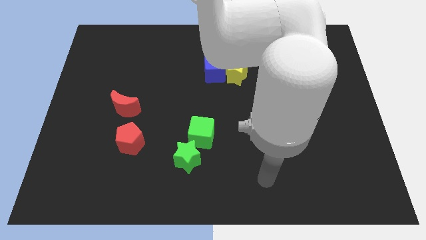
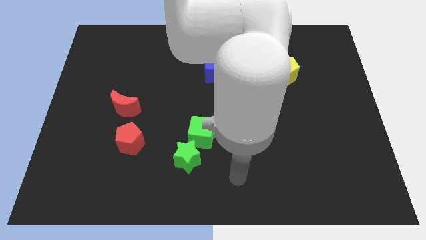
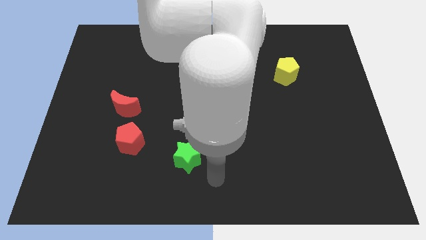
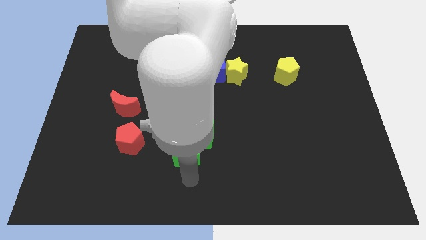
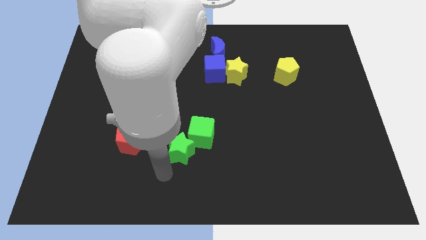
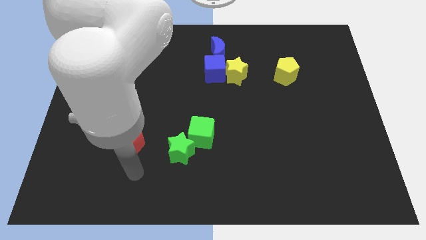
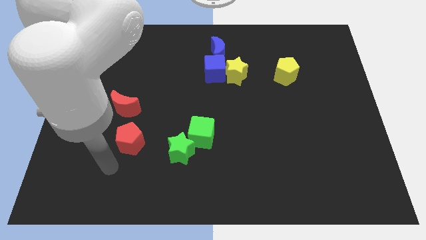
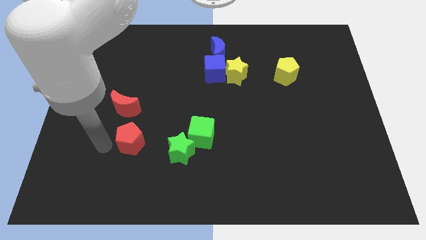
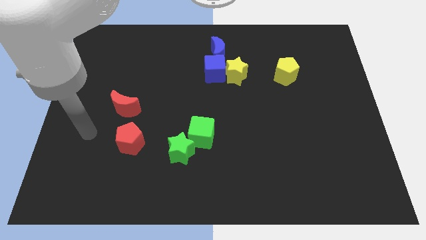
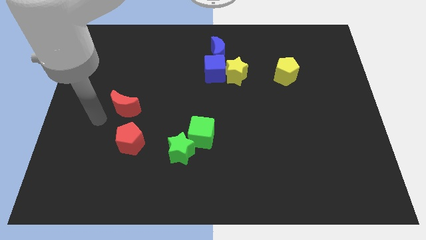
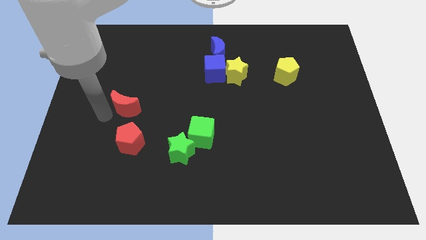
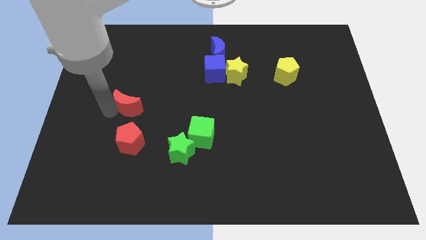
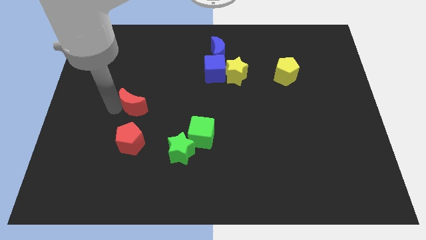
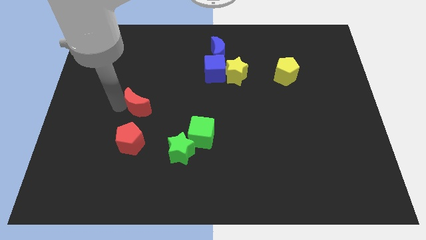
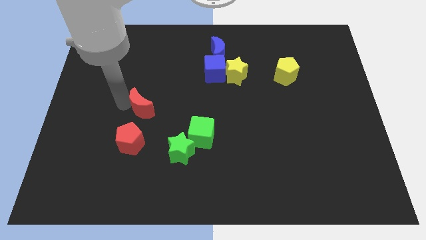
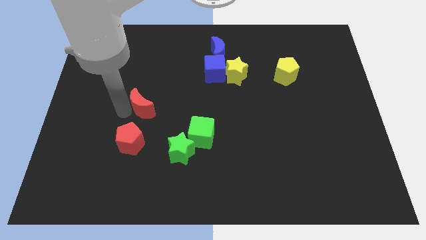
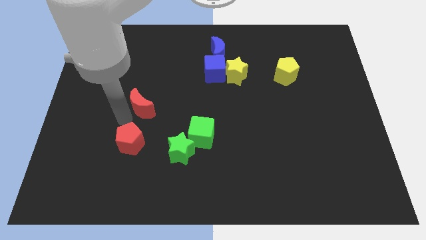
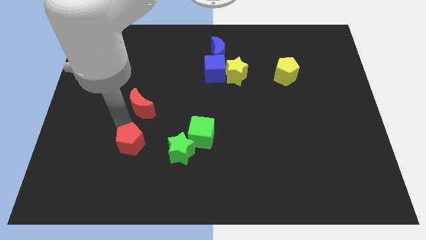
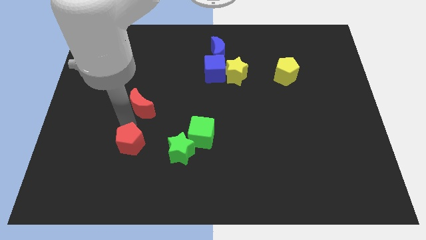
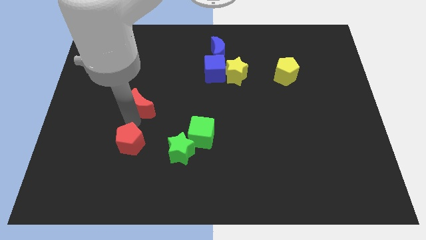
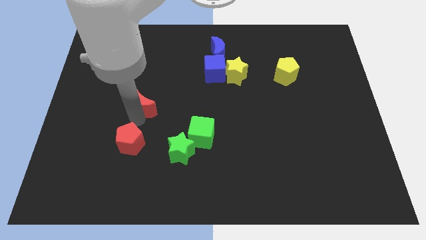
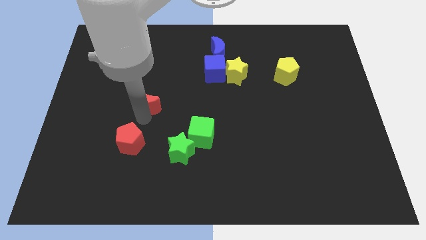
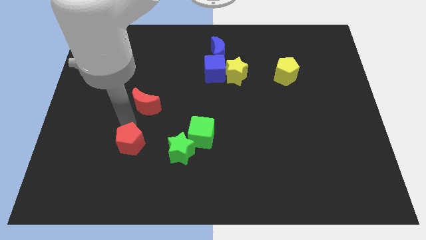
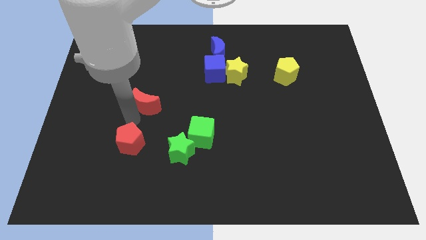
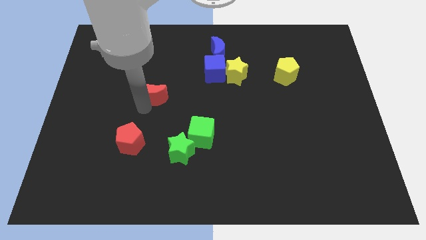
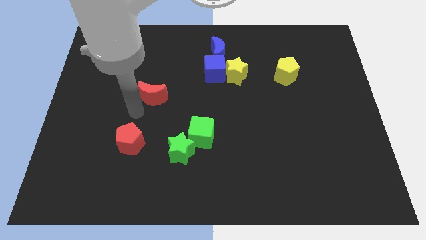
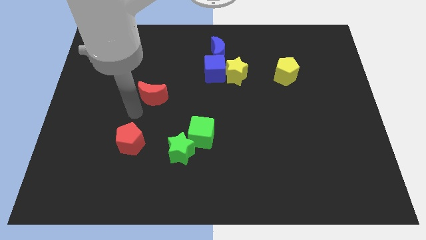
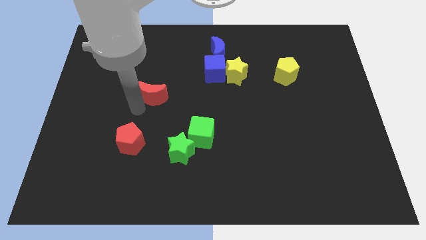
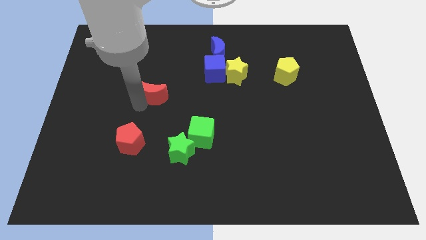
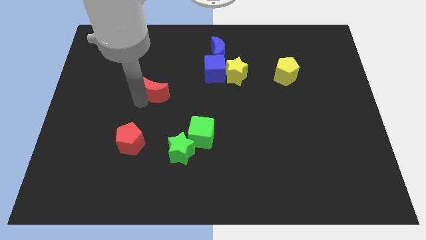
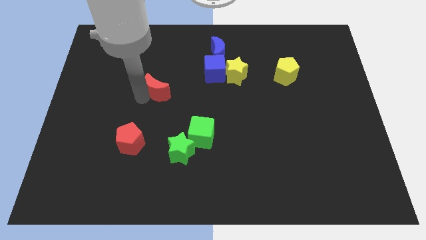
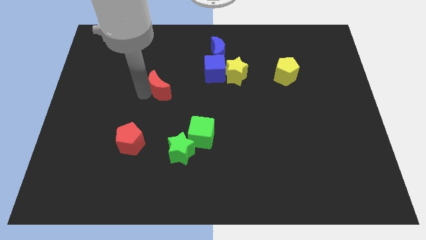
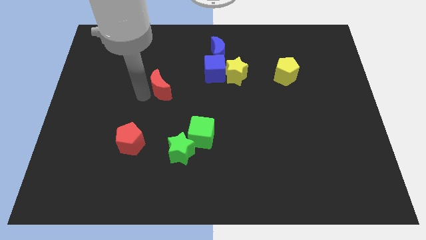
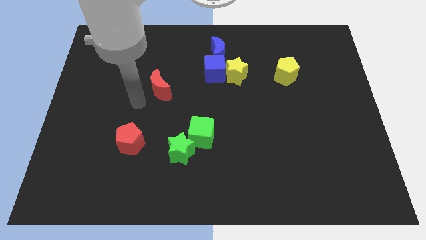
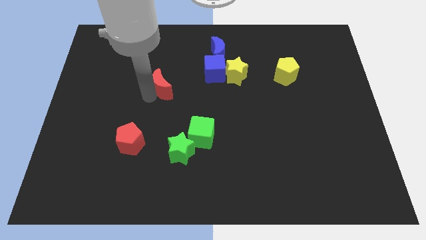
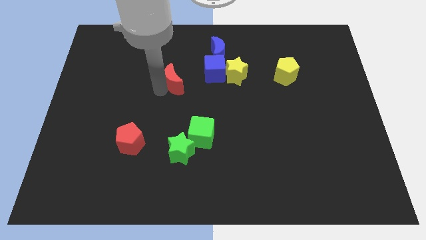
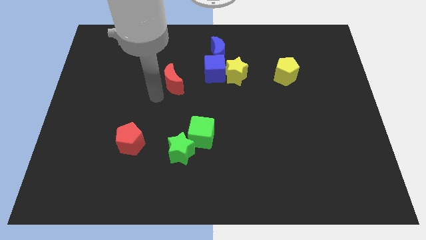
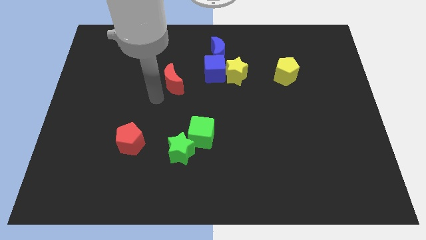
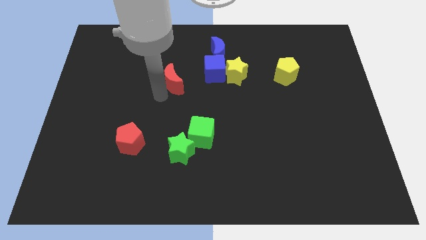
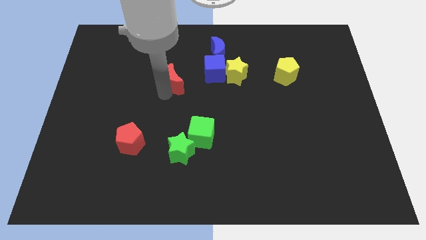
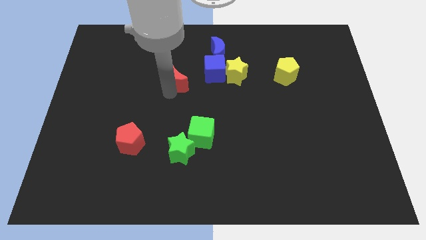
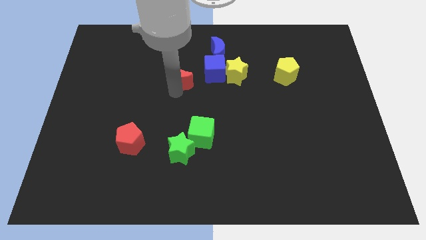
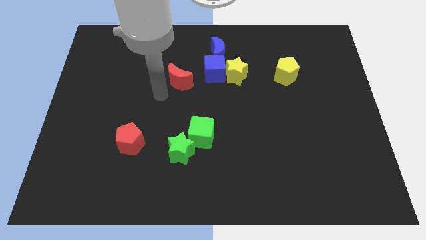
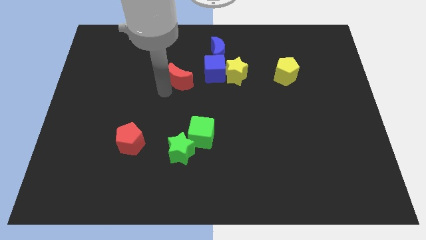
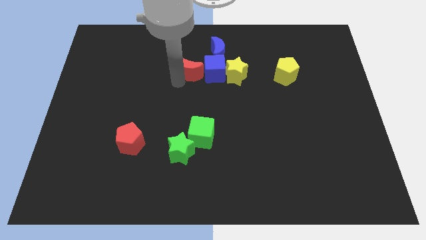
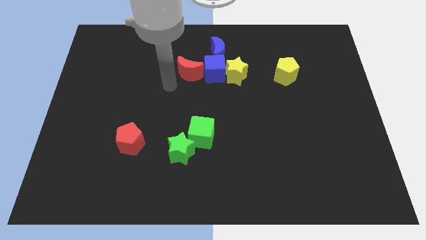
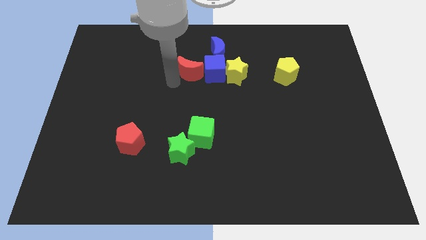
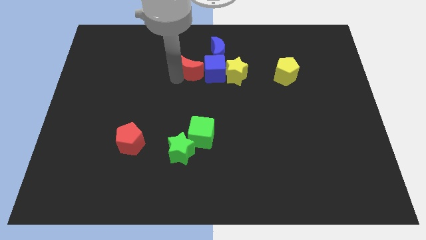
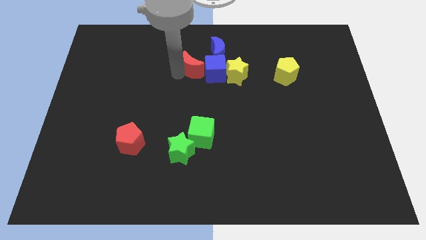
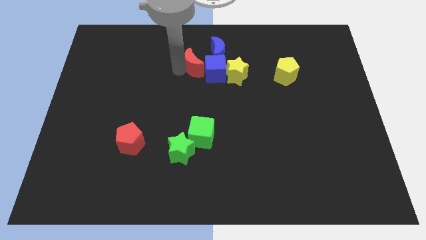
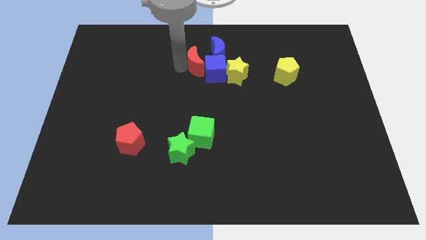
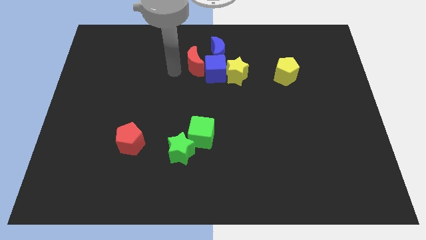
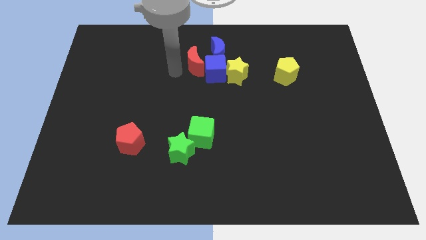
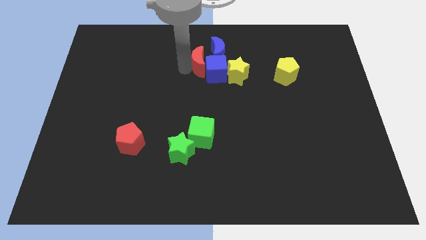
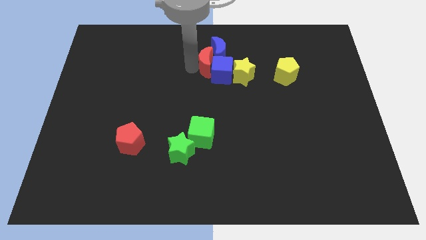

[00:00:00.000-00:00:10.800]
move the red moon towards the blue moon

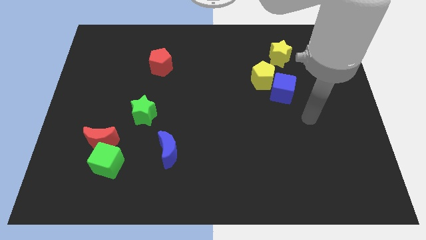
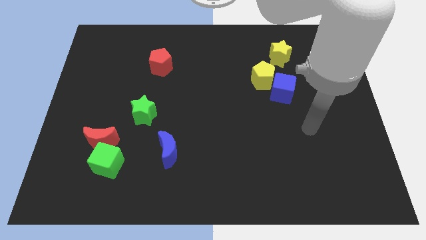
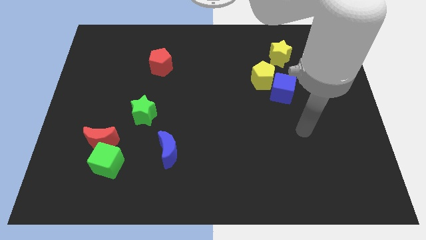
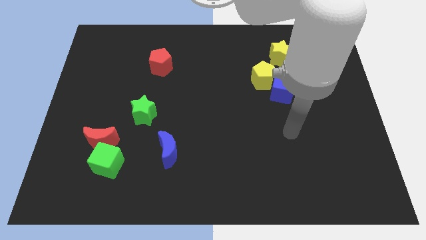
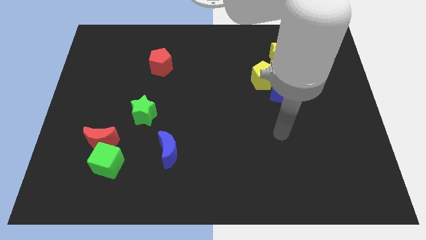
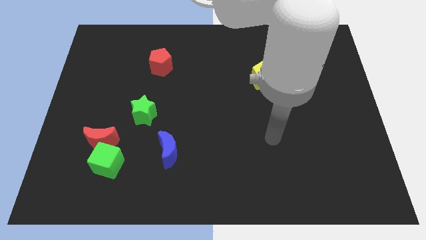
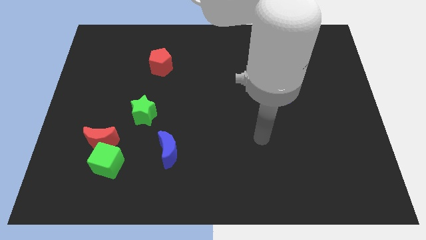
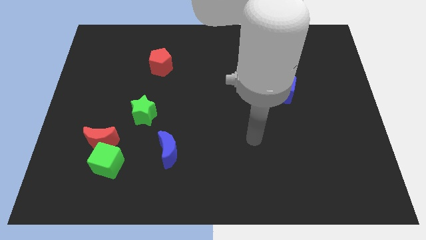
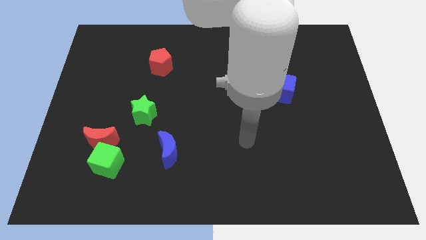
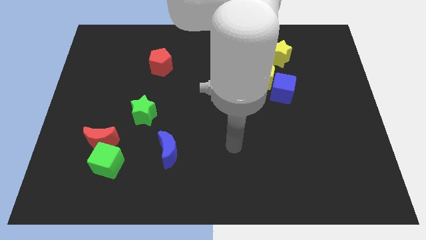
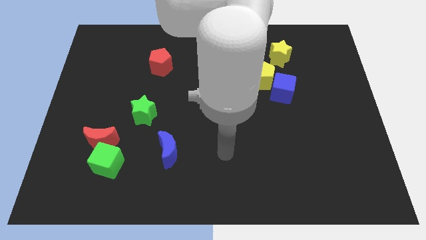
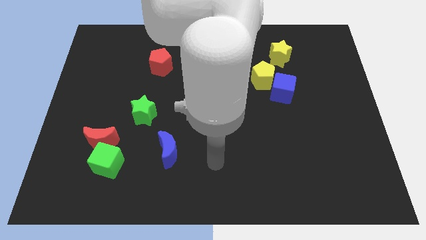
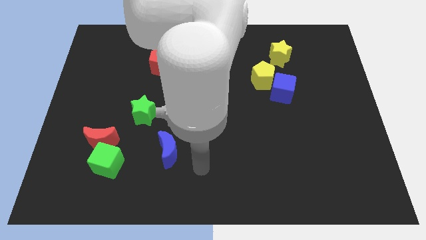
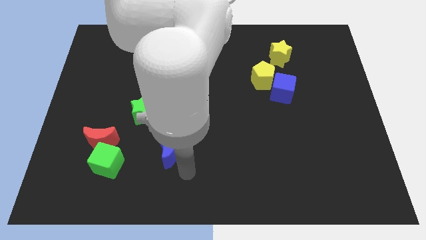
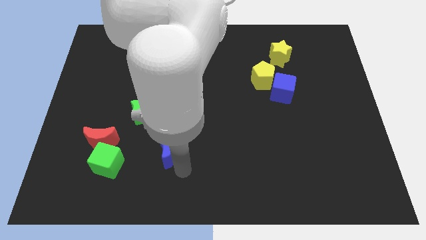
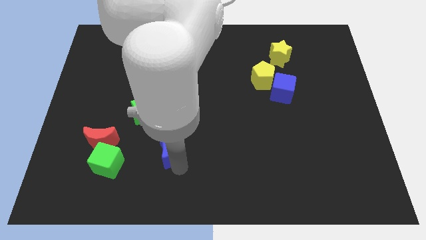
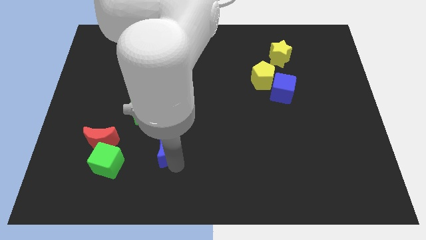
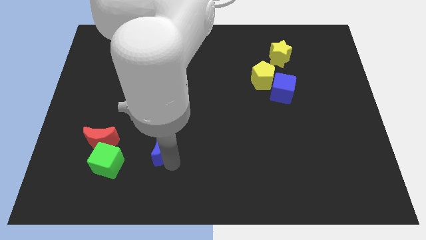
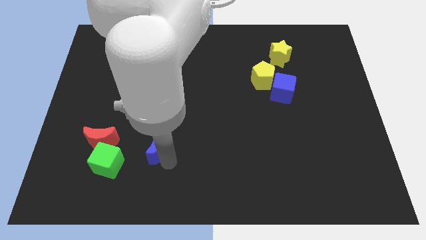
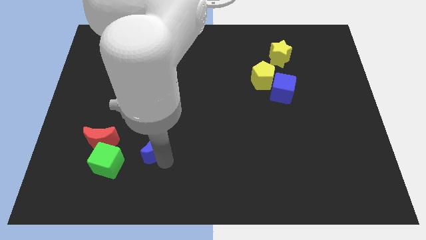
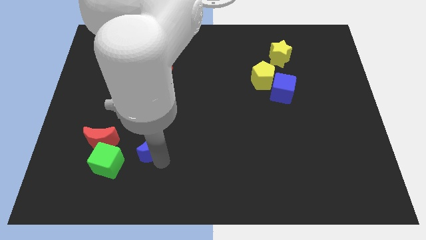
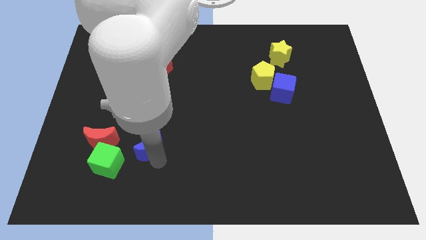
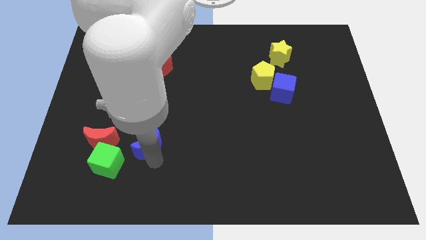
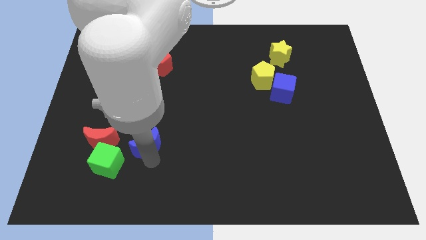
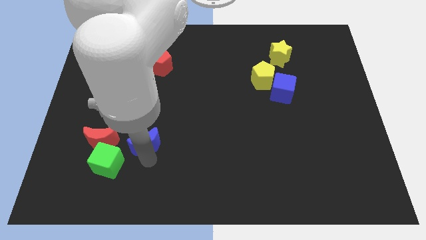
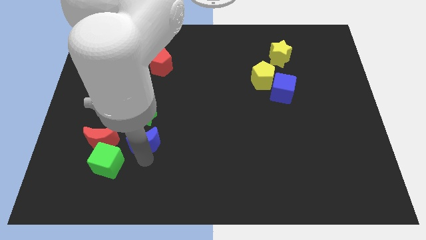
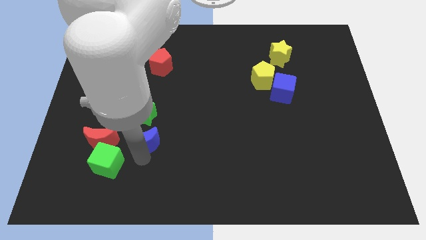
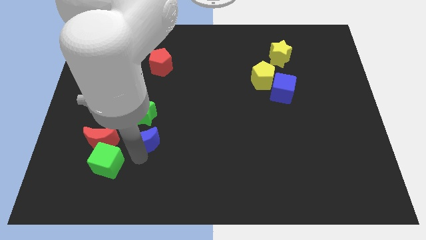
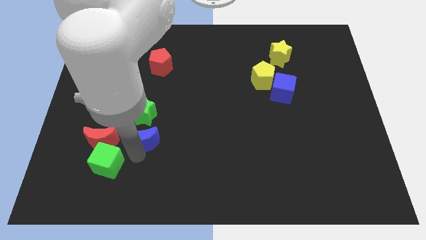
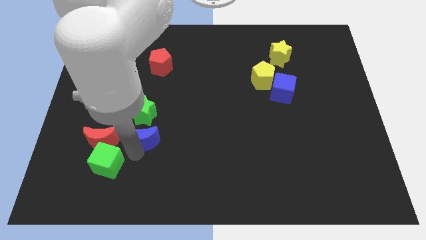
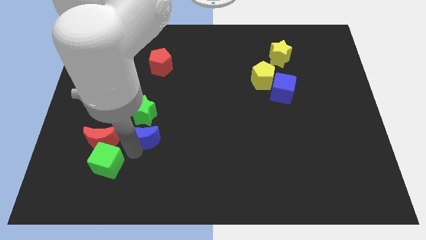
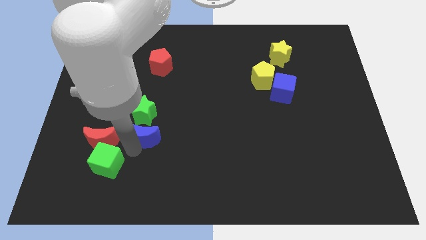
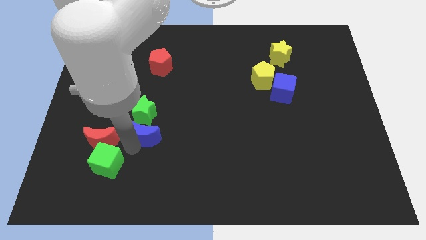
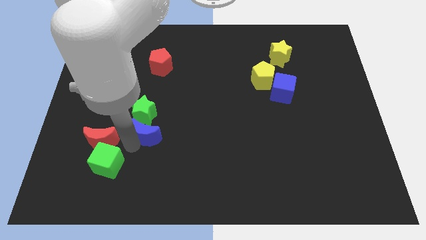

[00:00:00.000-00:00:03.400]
put the blue moon to the green star
